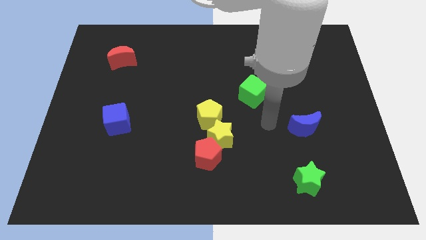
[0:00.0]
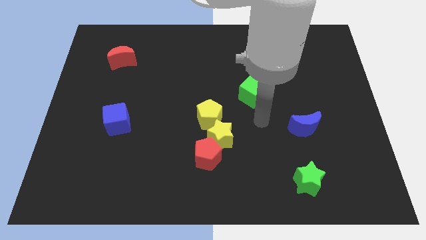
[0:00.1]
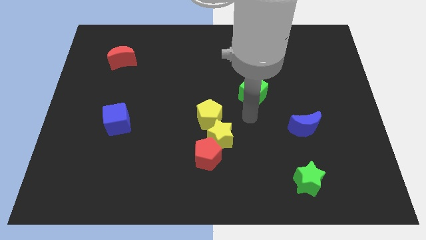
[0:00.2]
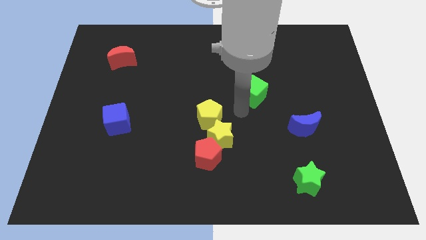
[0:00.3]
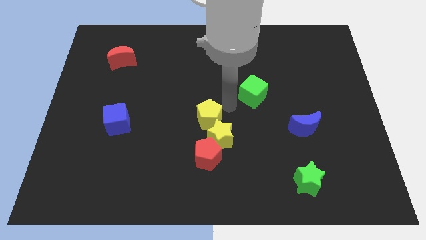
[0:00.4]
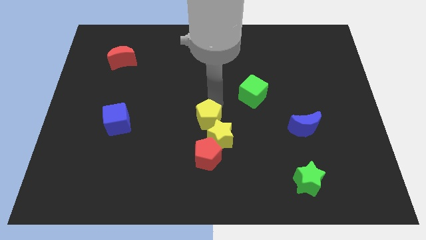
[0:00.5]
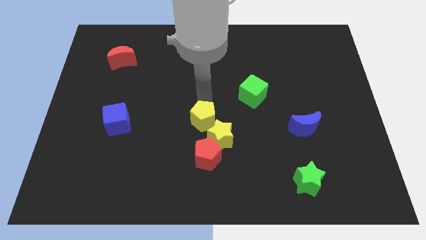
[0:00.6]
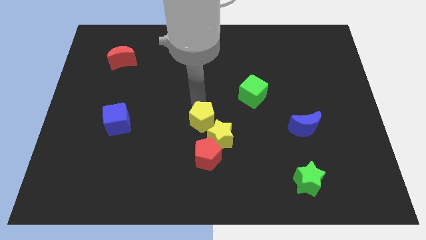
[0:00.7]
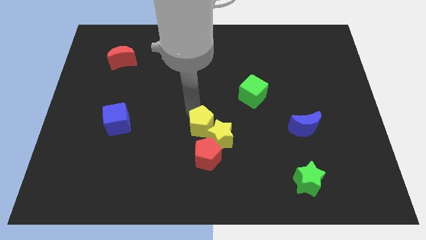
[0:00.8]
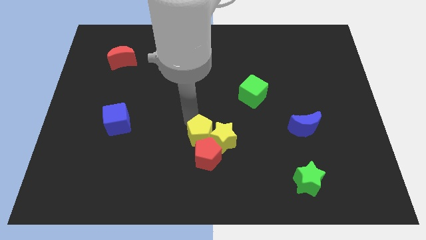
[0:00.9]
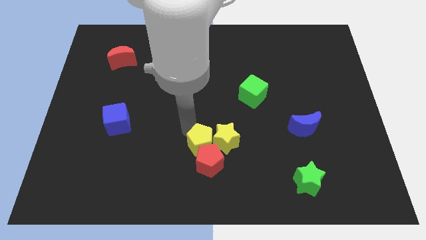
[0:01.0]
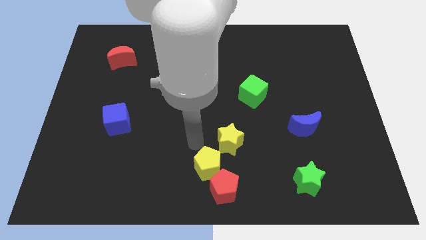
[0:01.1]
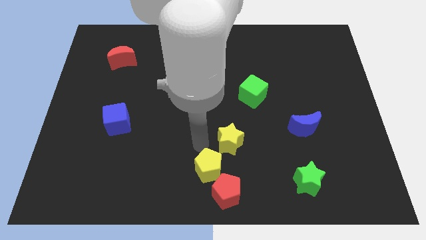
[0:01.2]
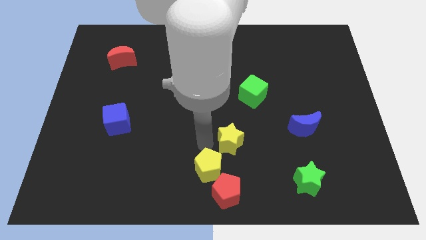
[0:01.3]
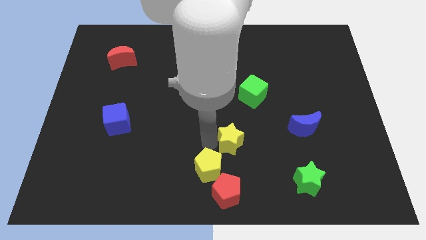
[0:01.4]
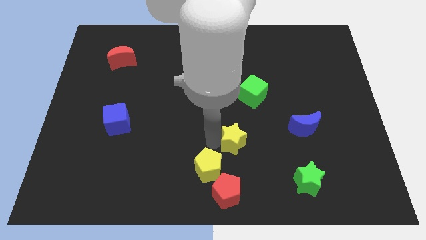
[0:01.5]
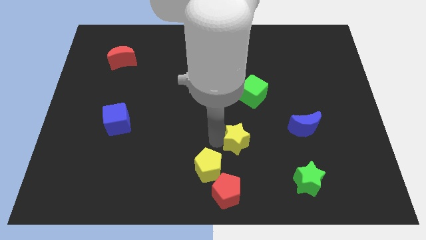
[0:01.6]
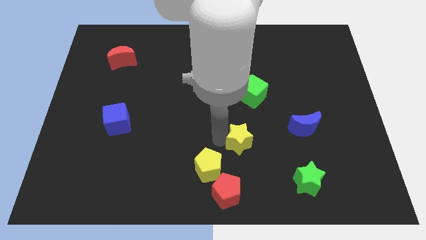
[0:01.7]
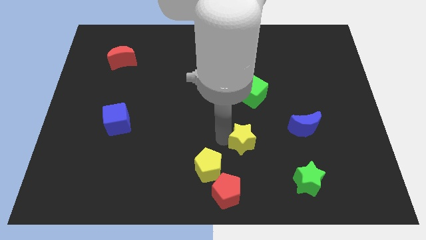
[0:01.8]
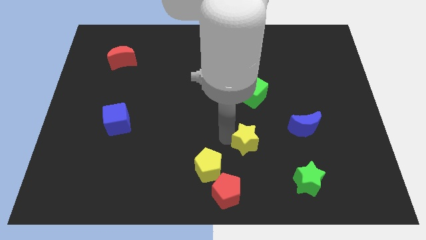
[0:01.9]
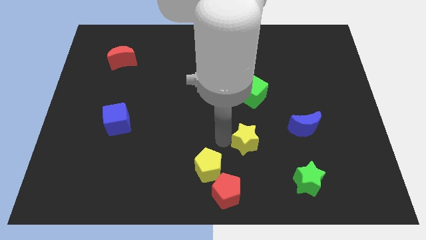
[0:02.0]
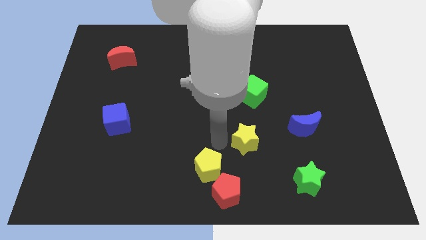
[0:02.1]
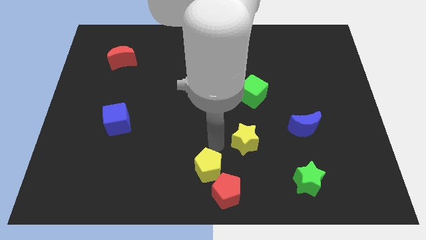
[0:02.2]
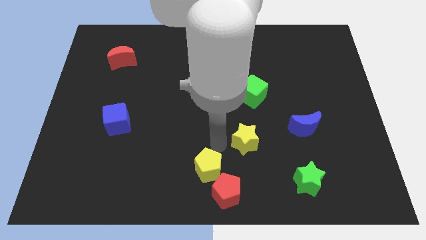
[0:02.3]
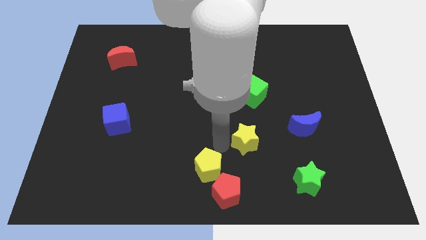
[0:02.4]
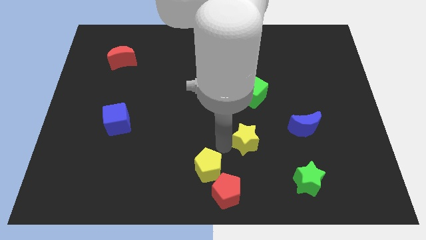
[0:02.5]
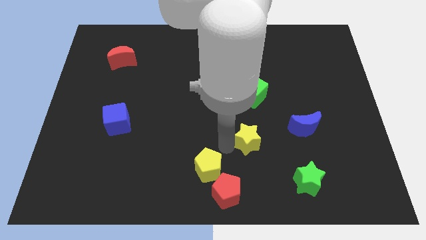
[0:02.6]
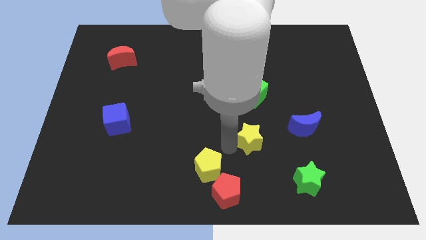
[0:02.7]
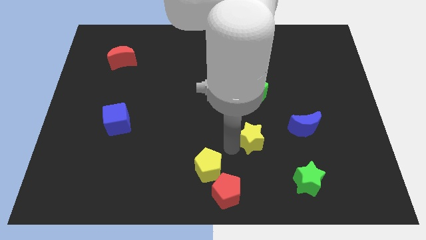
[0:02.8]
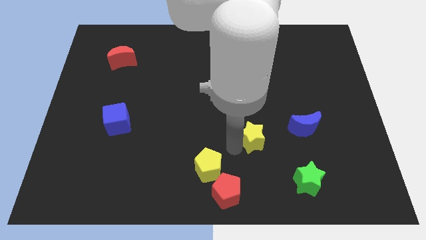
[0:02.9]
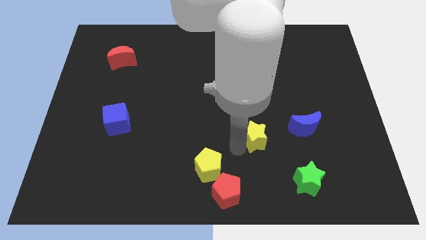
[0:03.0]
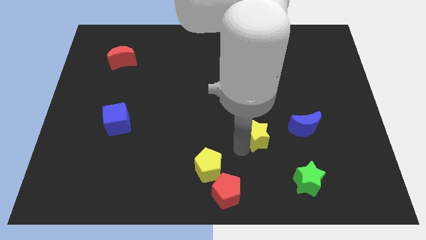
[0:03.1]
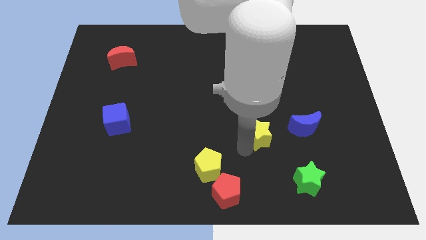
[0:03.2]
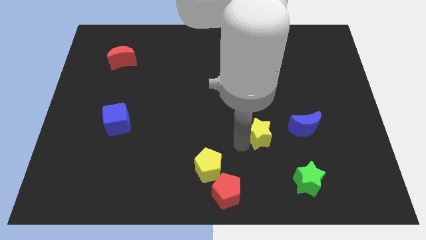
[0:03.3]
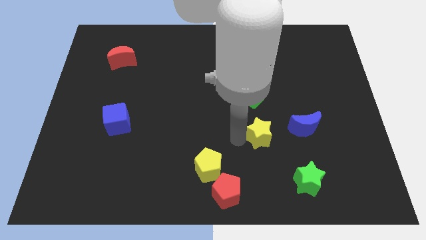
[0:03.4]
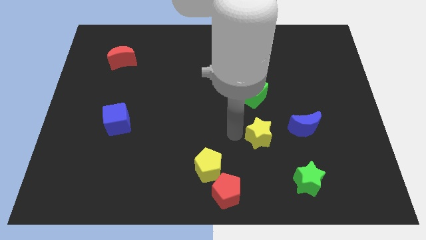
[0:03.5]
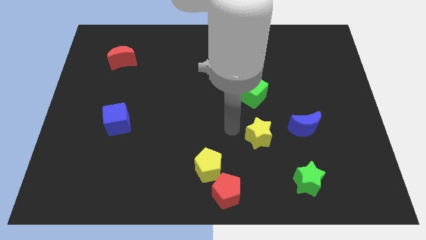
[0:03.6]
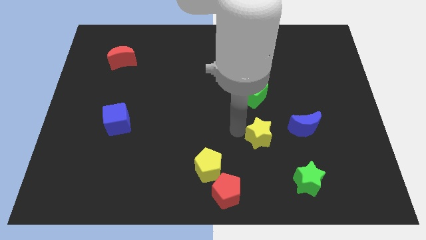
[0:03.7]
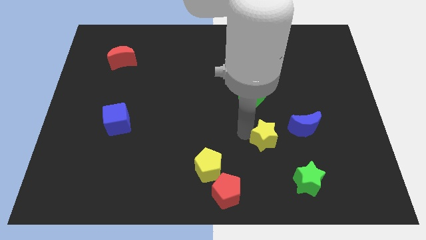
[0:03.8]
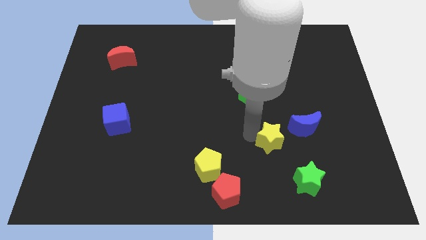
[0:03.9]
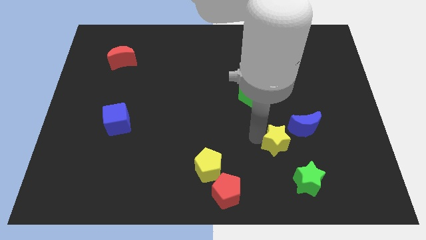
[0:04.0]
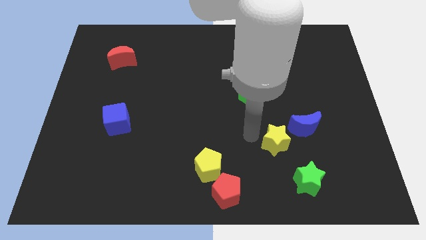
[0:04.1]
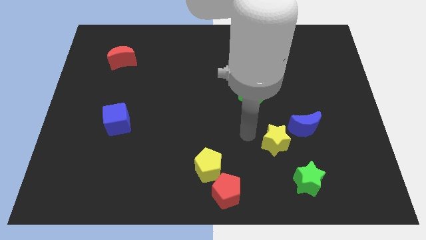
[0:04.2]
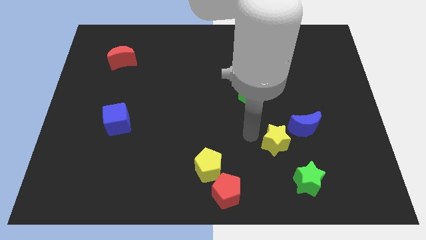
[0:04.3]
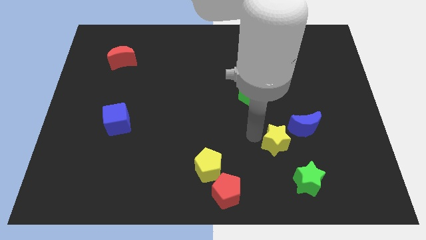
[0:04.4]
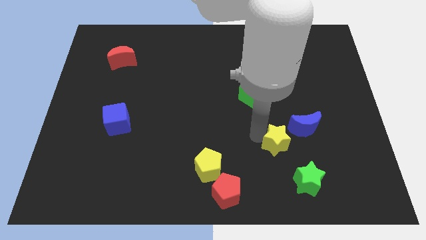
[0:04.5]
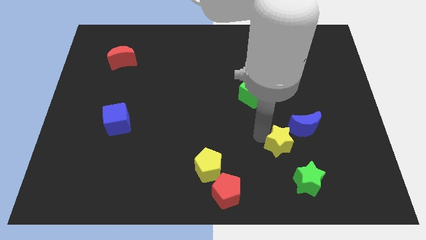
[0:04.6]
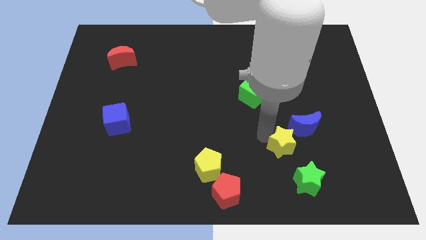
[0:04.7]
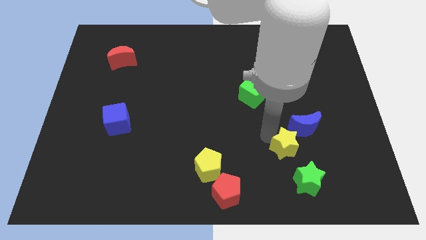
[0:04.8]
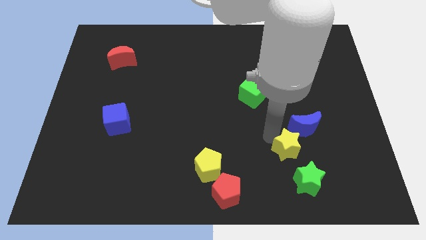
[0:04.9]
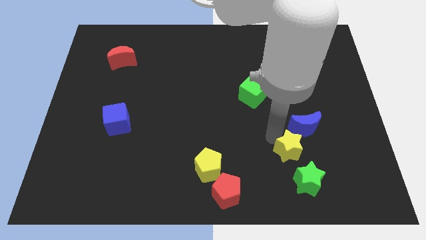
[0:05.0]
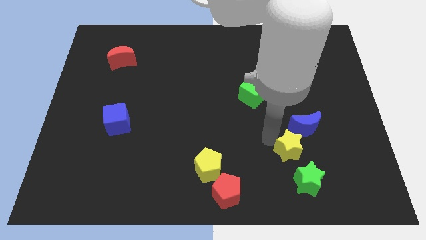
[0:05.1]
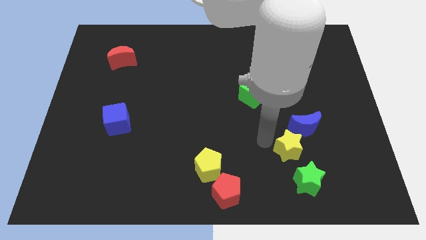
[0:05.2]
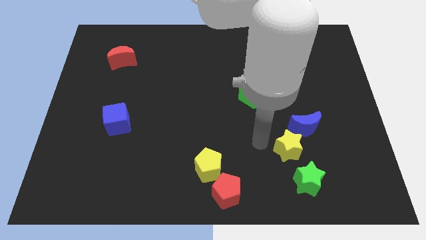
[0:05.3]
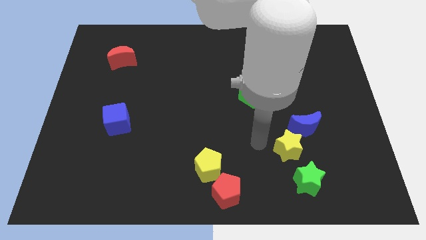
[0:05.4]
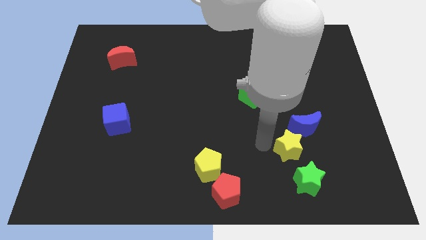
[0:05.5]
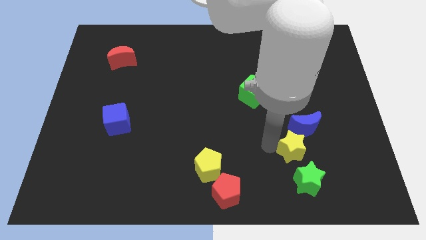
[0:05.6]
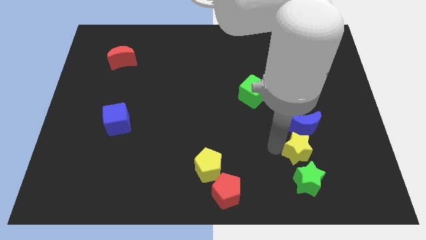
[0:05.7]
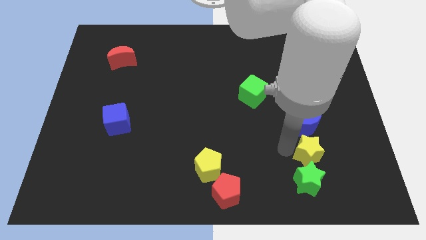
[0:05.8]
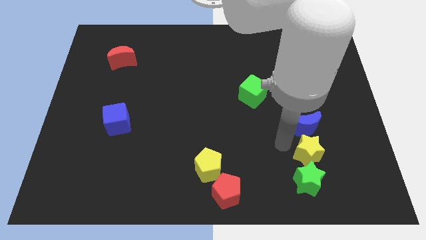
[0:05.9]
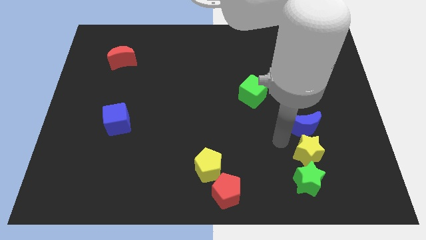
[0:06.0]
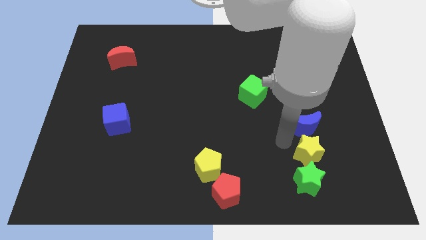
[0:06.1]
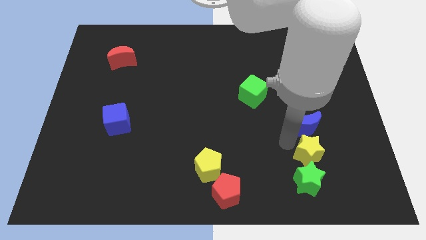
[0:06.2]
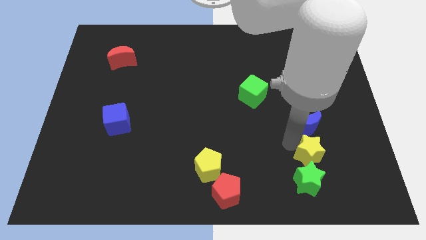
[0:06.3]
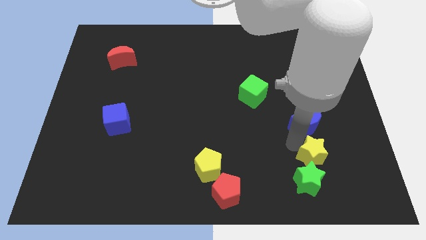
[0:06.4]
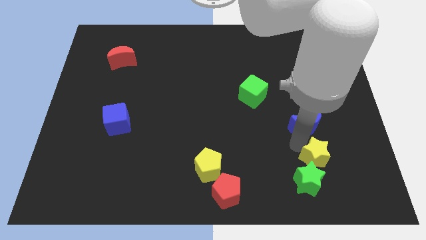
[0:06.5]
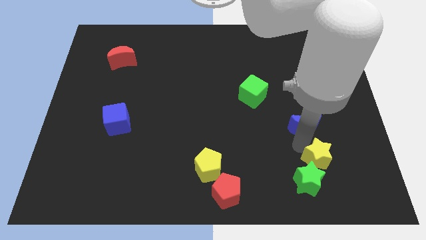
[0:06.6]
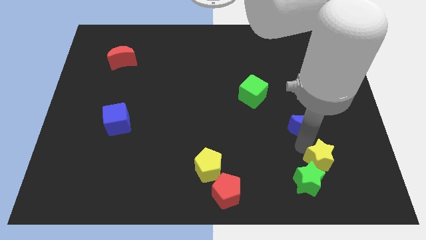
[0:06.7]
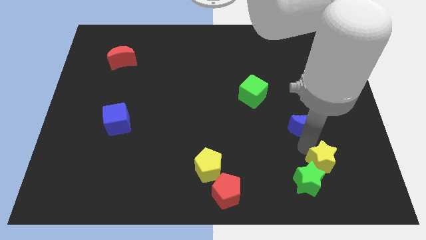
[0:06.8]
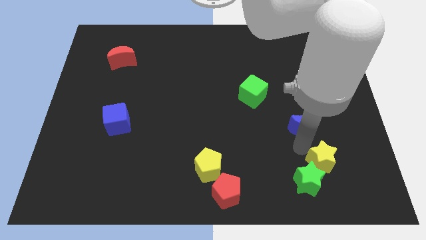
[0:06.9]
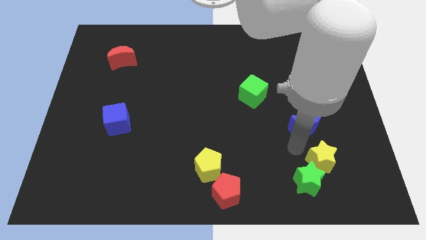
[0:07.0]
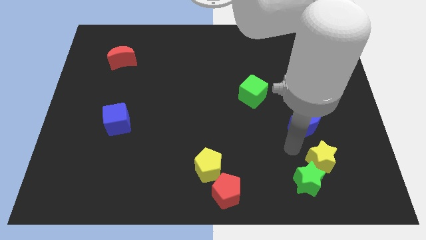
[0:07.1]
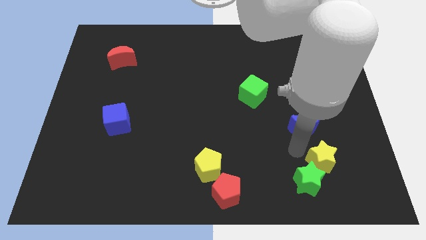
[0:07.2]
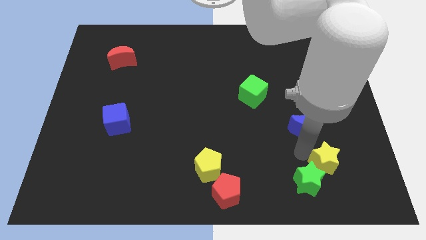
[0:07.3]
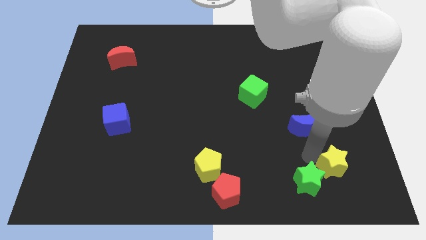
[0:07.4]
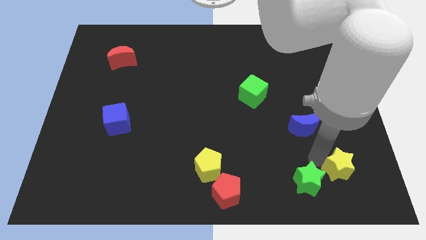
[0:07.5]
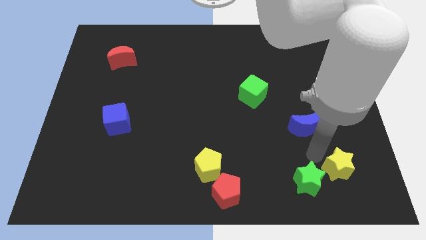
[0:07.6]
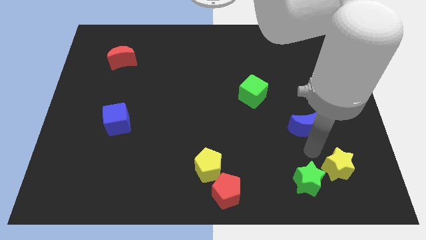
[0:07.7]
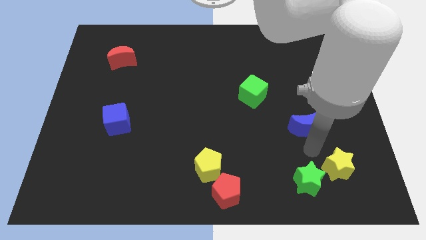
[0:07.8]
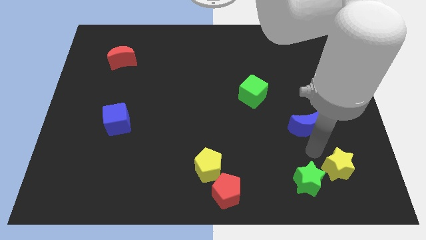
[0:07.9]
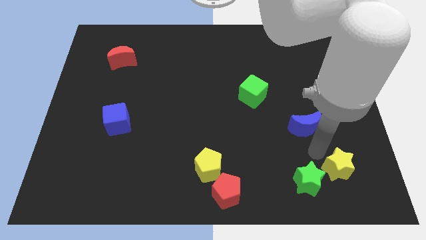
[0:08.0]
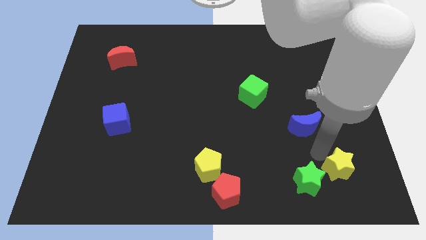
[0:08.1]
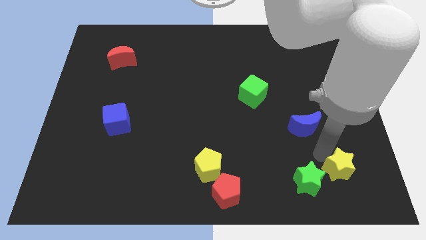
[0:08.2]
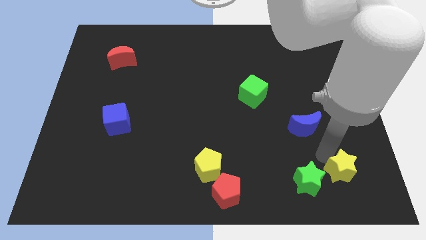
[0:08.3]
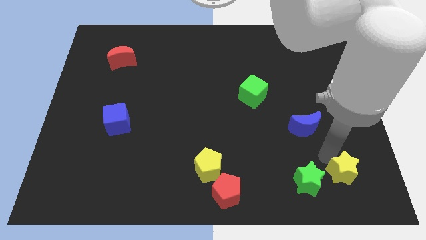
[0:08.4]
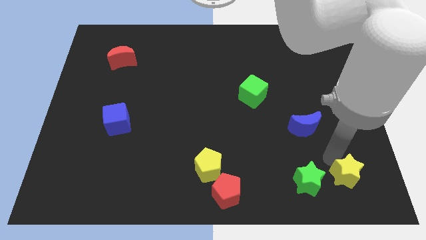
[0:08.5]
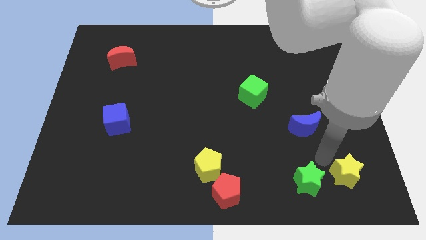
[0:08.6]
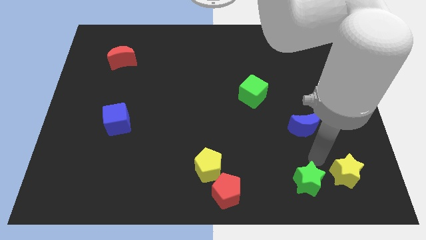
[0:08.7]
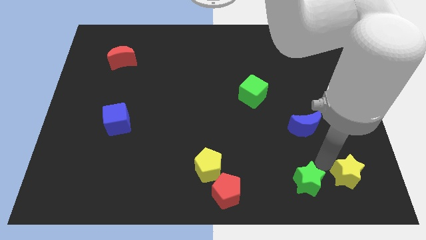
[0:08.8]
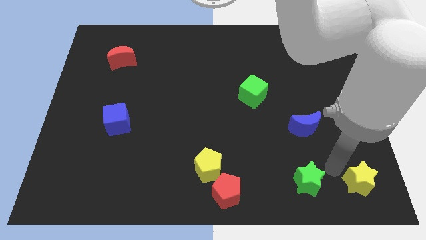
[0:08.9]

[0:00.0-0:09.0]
move the yellow star to the lower right corner
